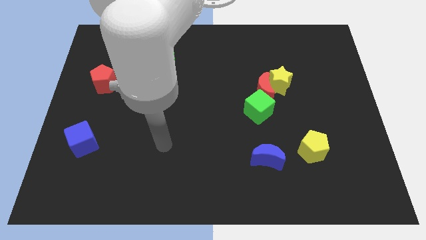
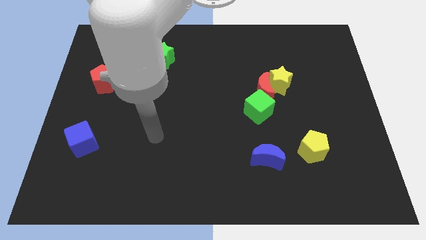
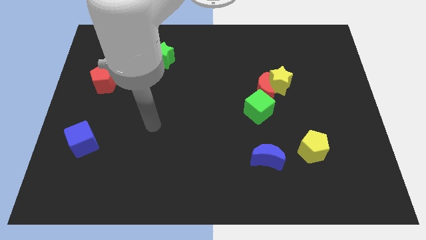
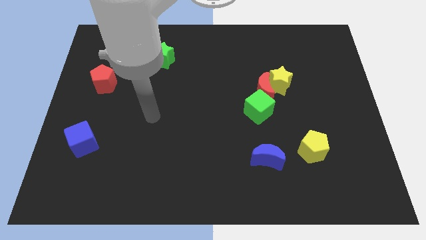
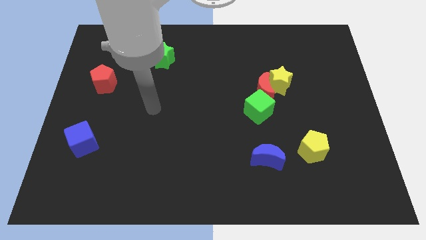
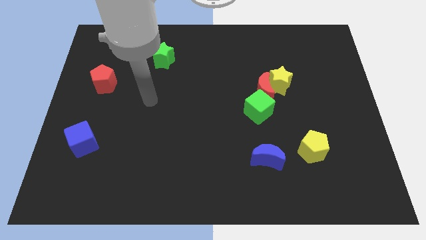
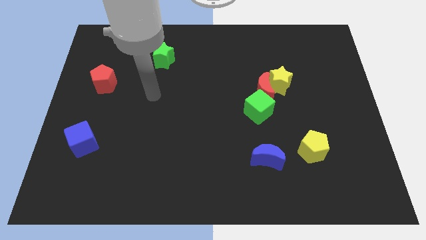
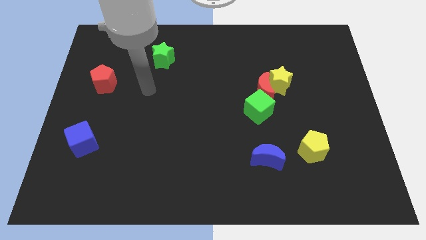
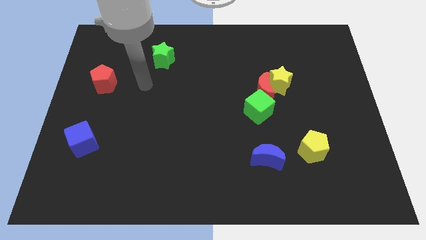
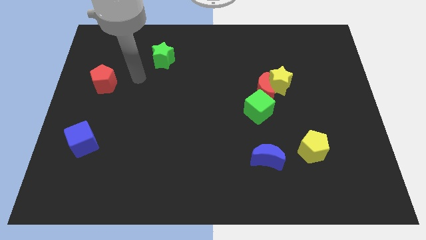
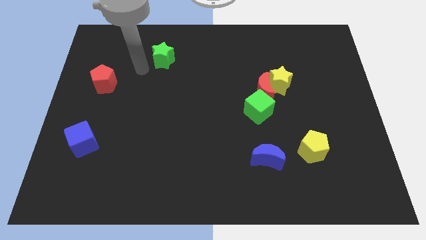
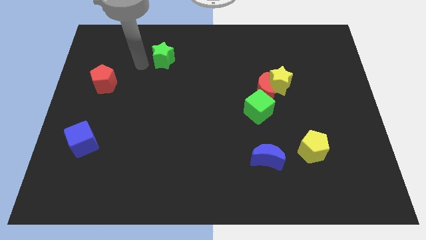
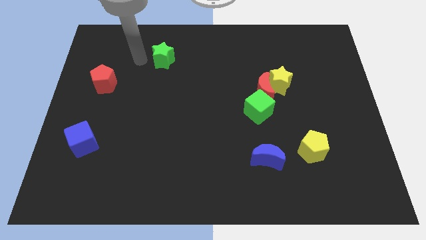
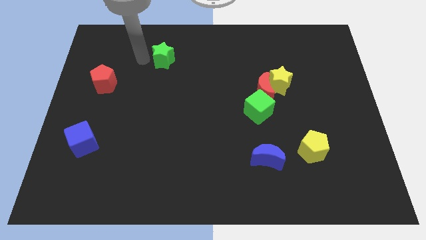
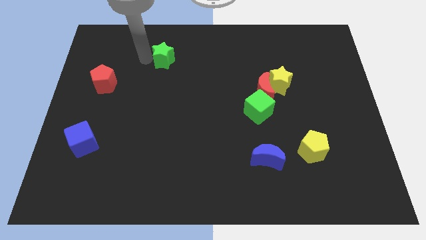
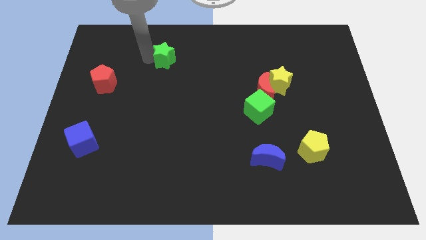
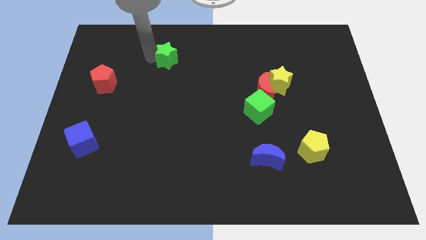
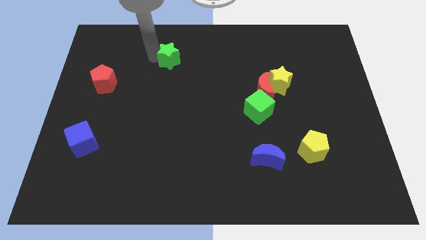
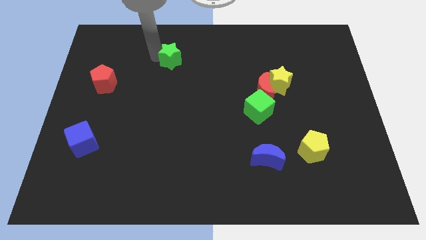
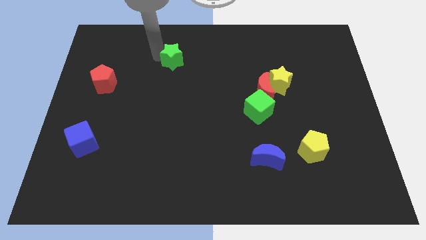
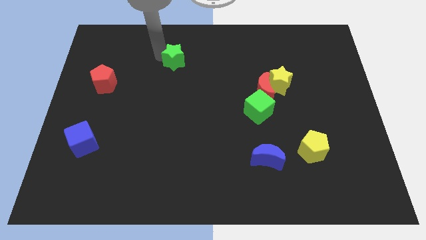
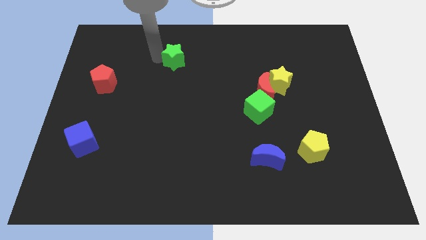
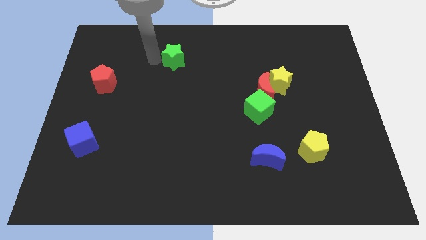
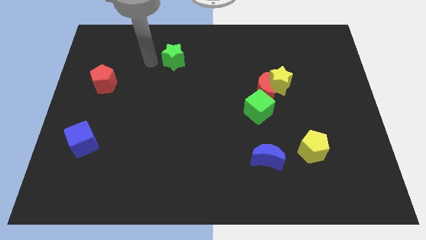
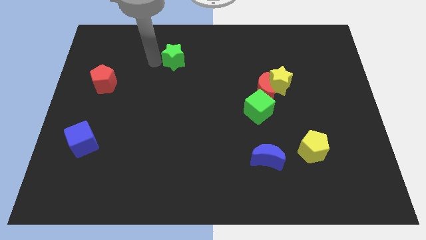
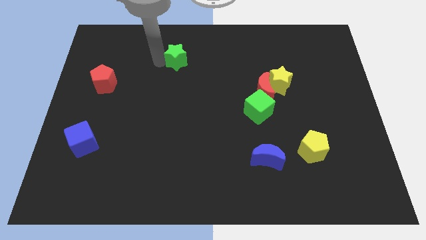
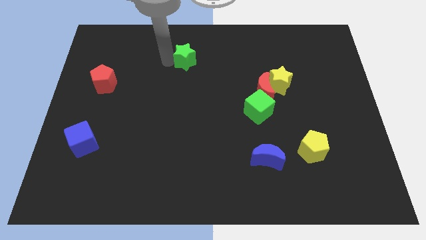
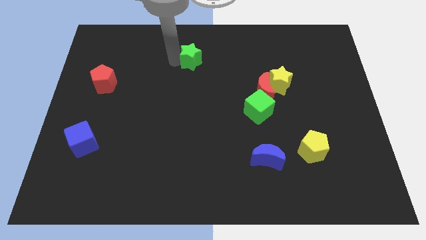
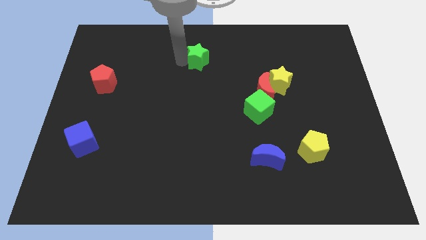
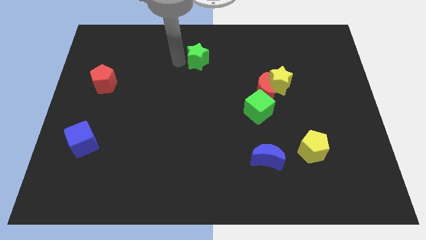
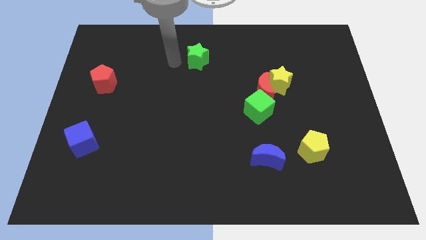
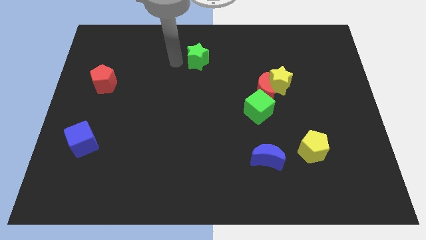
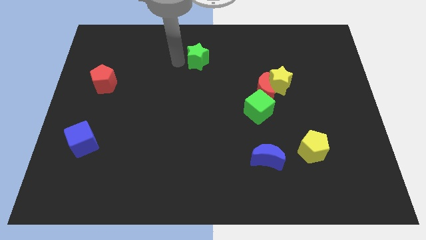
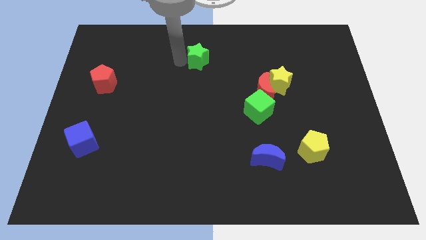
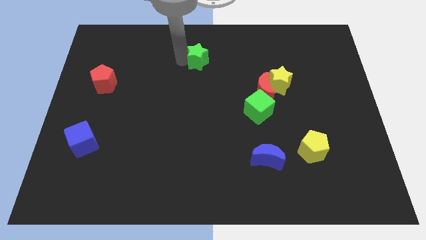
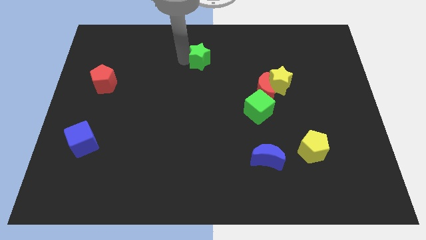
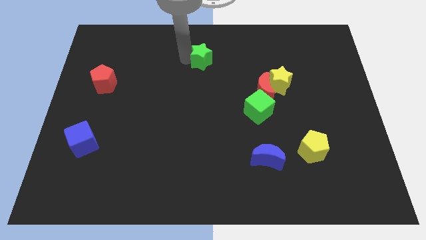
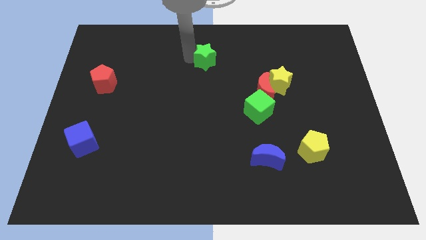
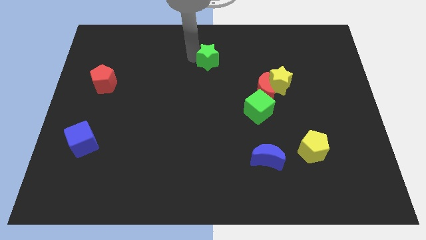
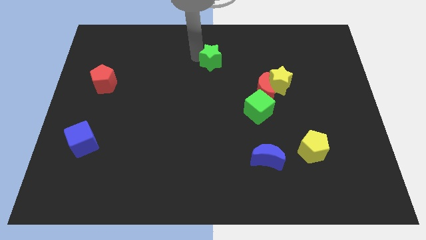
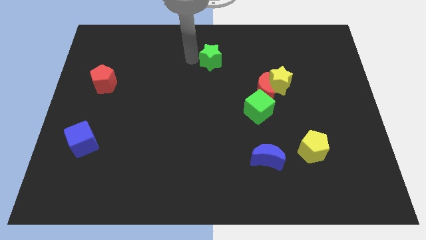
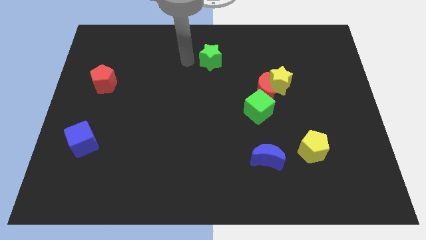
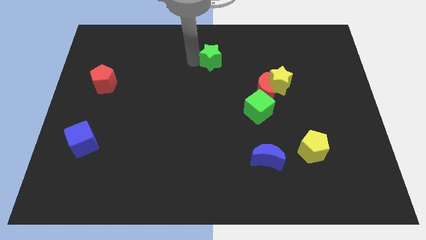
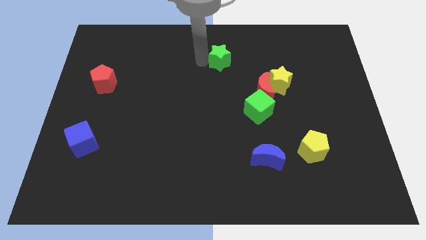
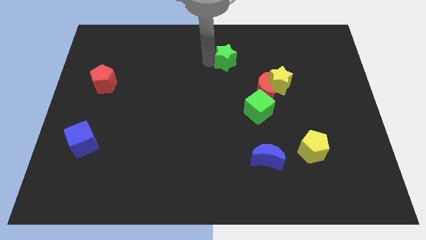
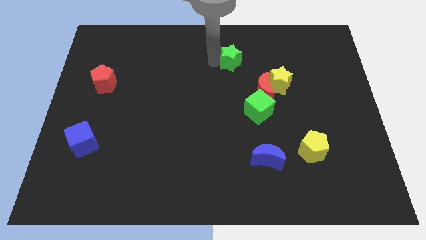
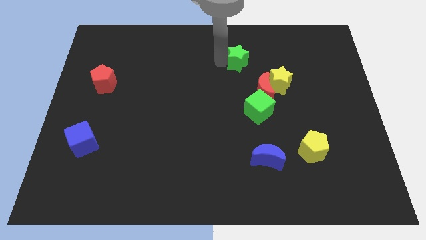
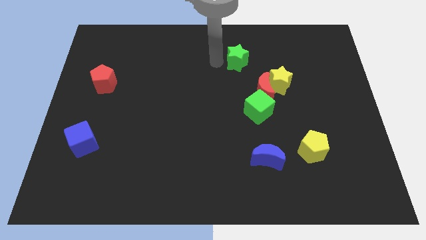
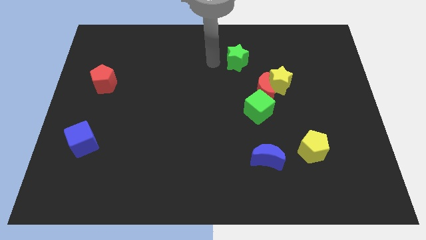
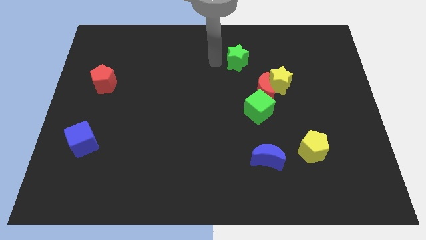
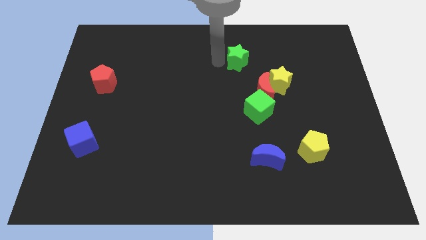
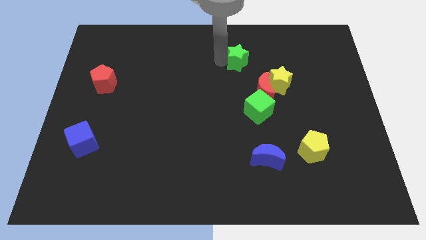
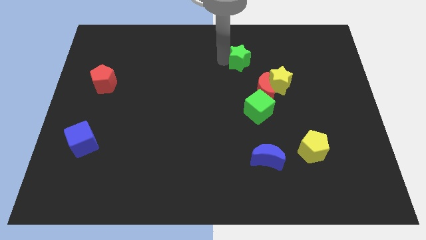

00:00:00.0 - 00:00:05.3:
push the green star right

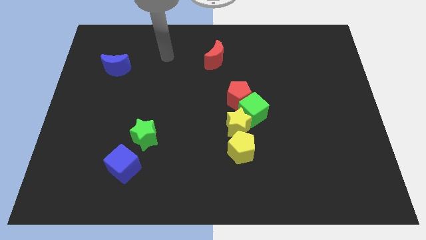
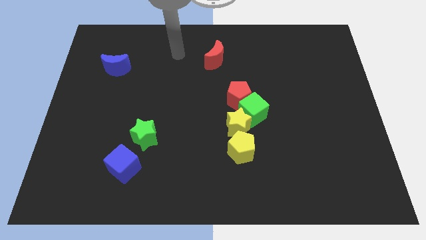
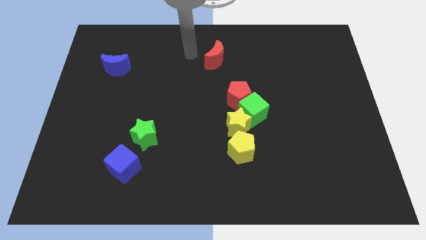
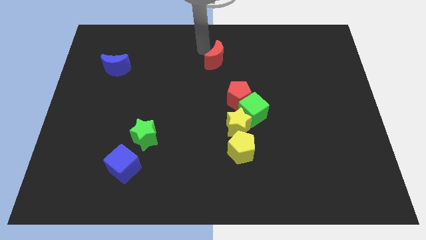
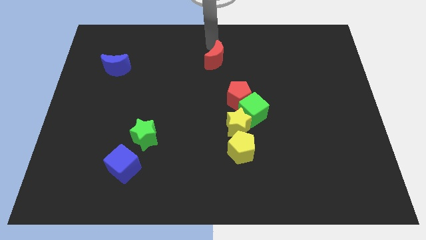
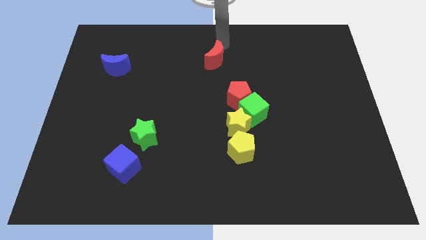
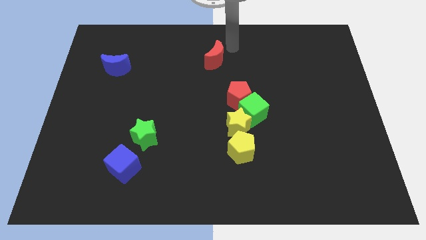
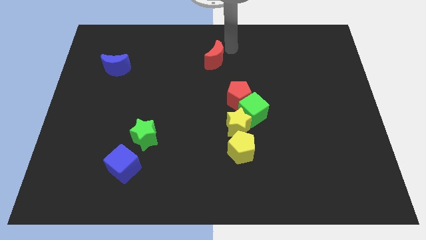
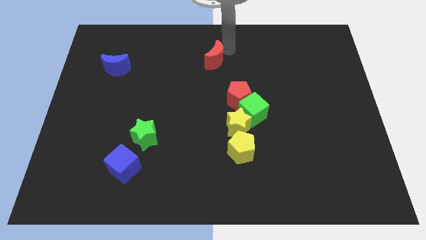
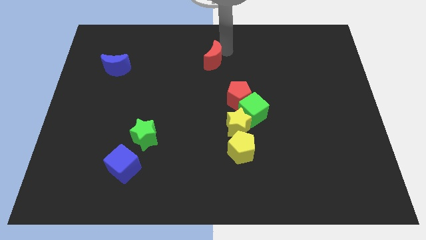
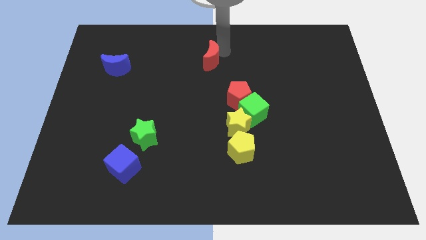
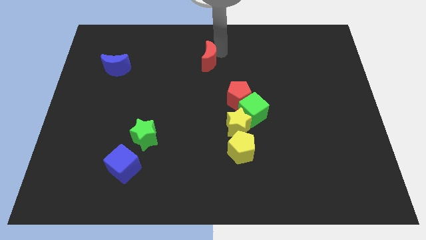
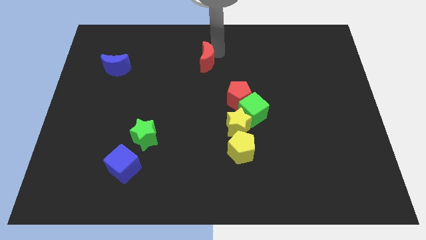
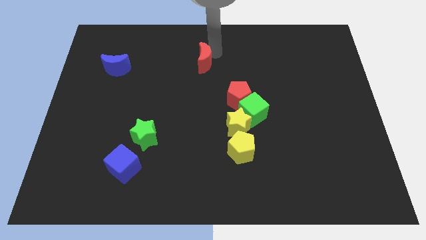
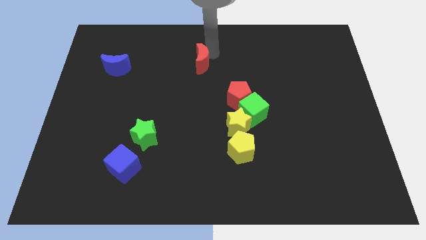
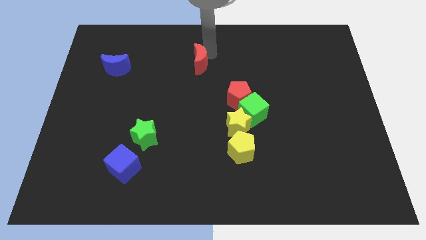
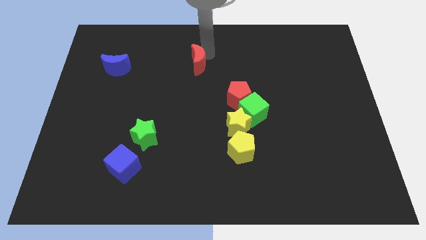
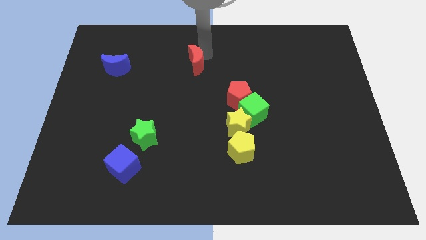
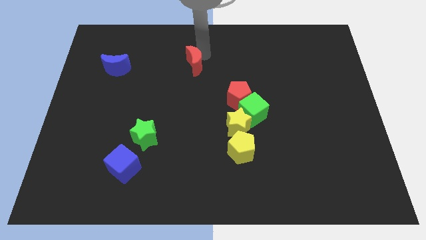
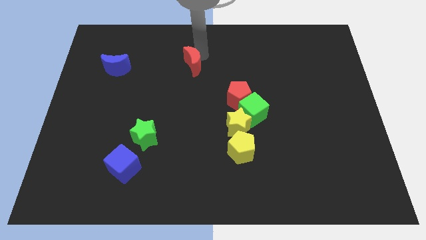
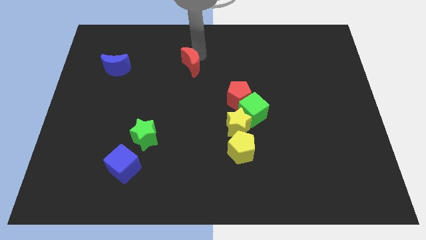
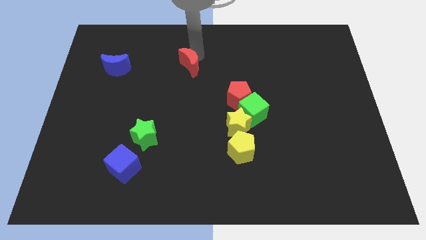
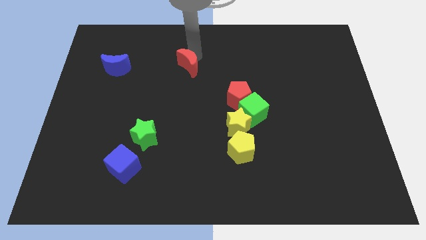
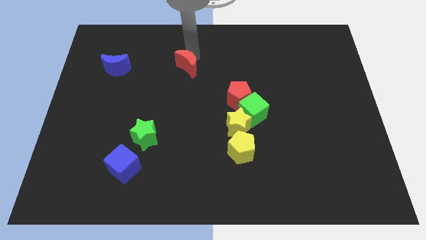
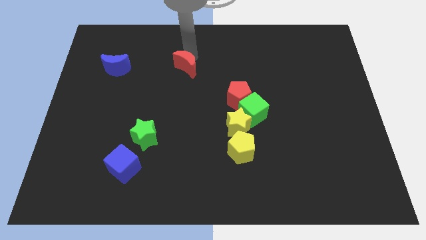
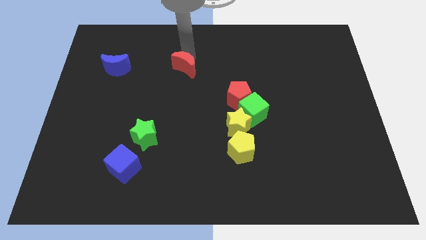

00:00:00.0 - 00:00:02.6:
slide the red moon diagonally down and left somewhat

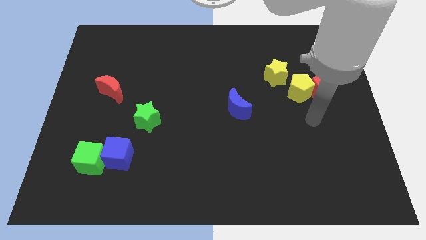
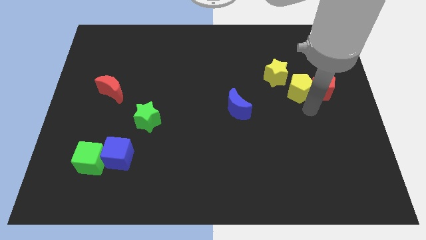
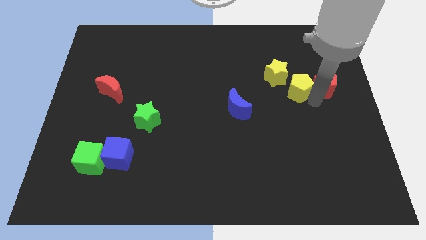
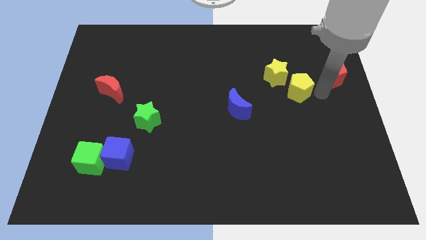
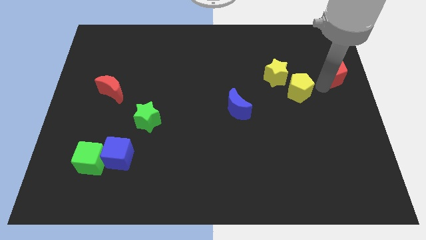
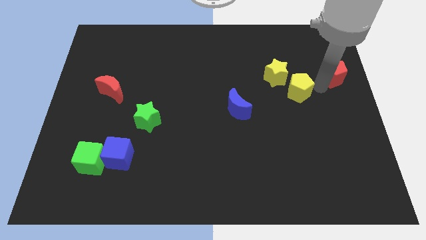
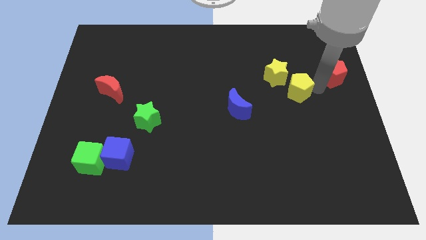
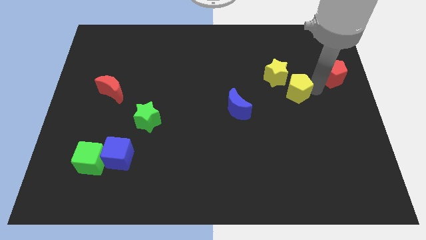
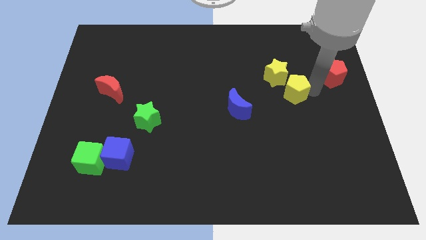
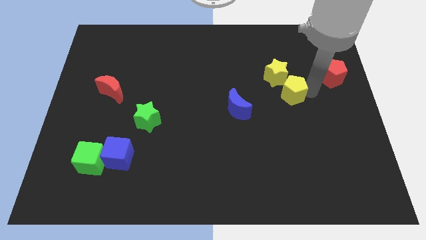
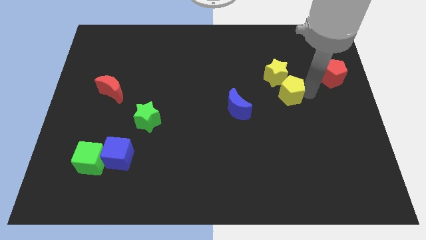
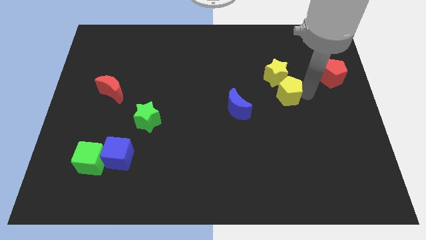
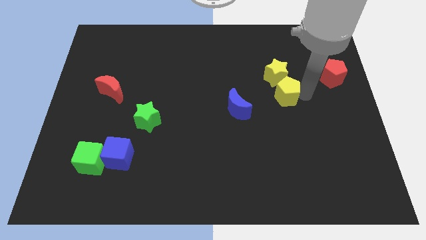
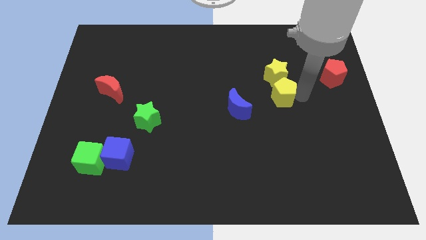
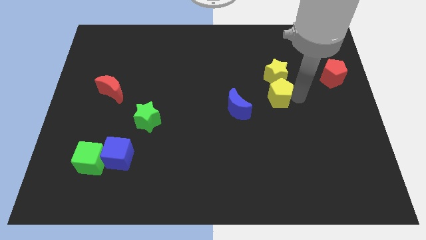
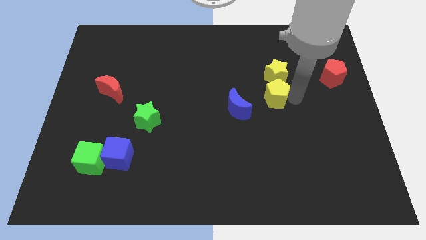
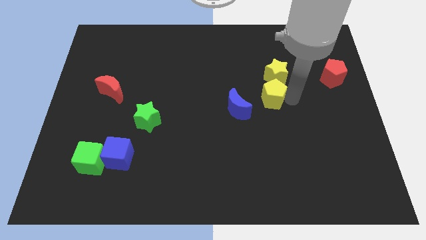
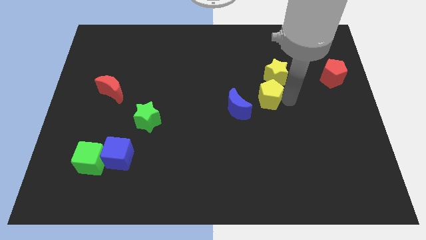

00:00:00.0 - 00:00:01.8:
slightly slide the yellow pentagon to the left
